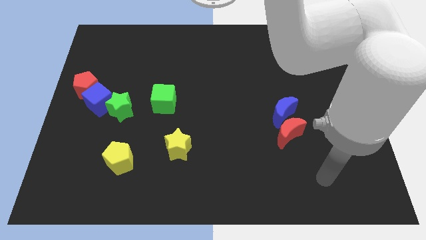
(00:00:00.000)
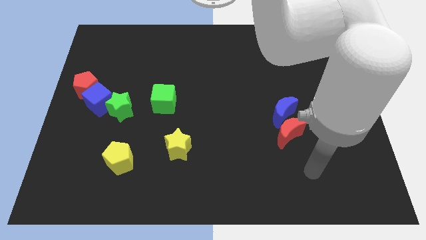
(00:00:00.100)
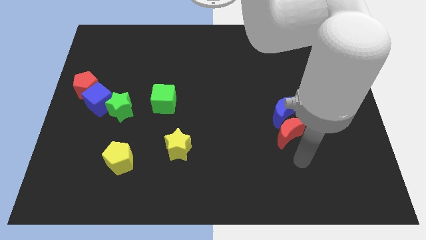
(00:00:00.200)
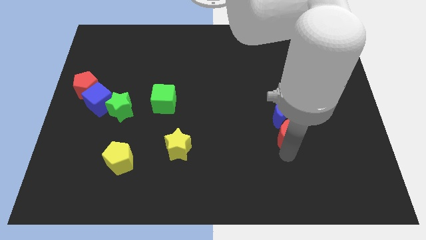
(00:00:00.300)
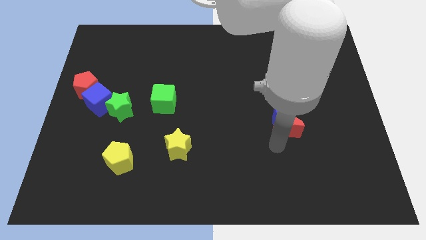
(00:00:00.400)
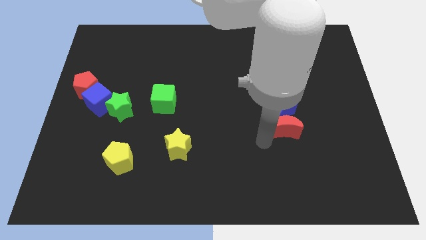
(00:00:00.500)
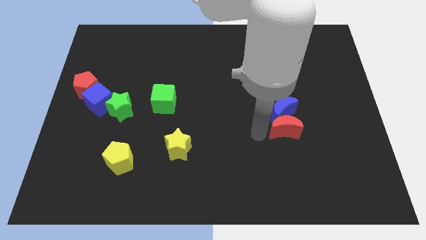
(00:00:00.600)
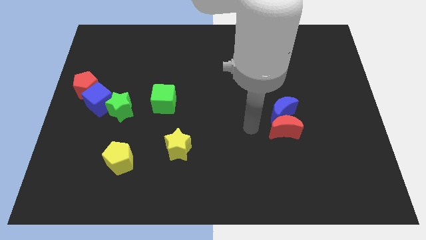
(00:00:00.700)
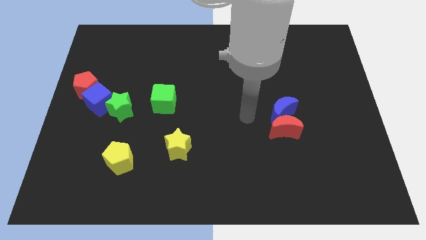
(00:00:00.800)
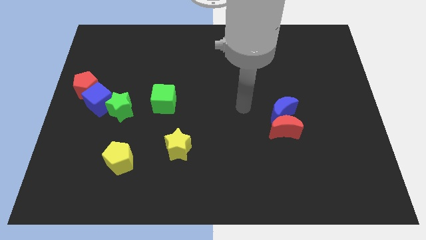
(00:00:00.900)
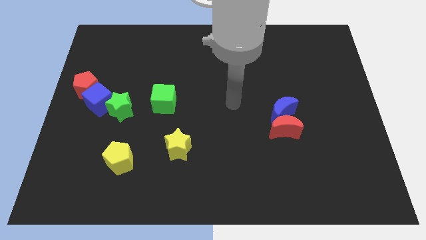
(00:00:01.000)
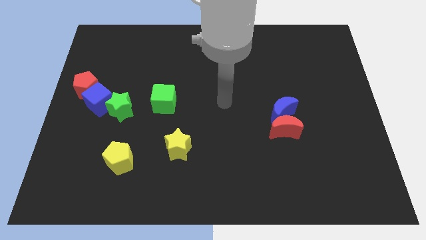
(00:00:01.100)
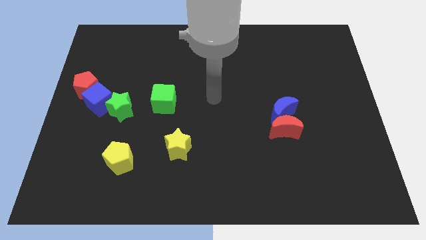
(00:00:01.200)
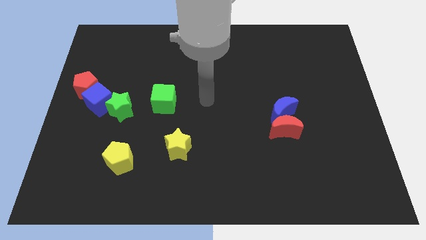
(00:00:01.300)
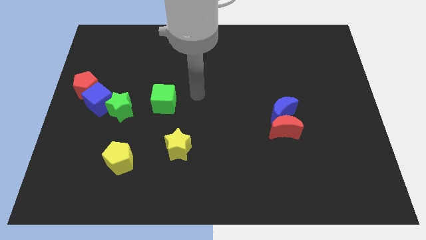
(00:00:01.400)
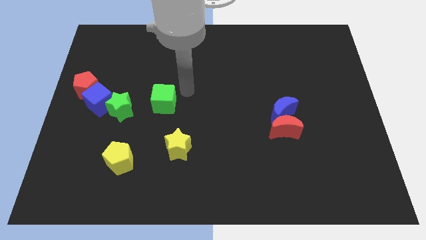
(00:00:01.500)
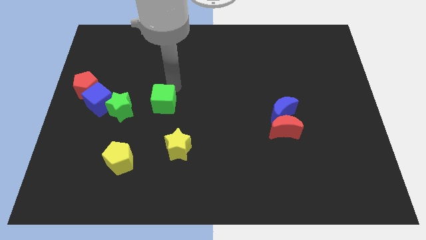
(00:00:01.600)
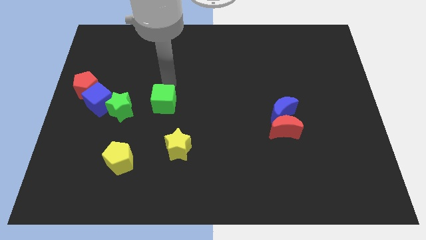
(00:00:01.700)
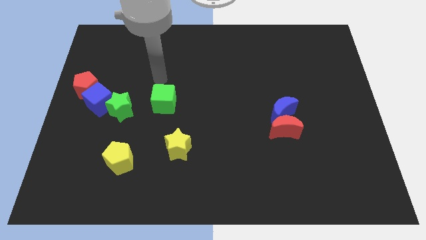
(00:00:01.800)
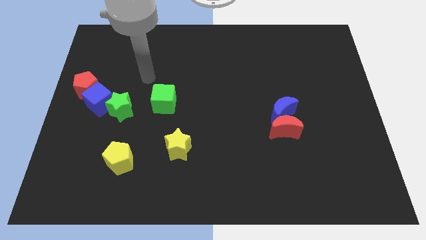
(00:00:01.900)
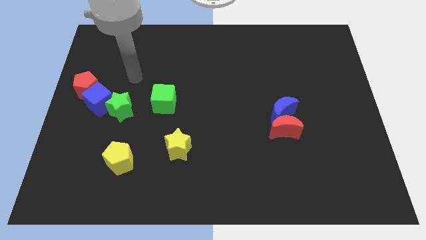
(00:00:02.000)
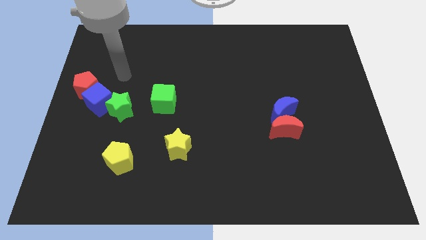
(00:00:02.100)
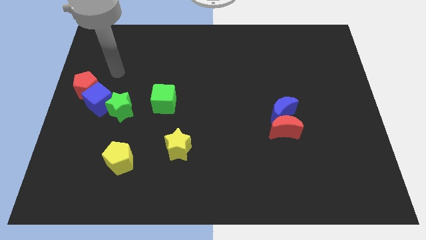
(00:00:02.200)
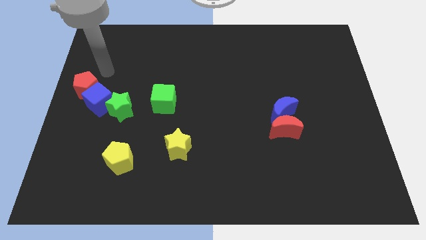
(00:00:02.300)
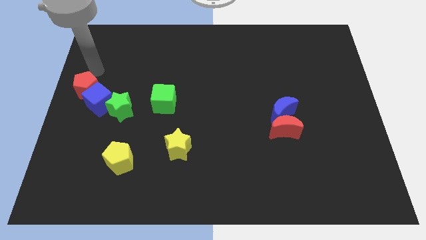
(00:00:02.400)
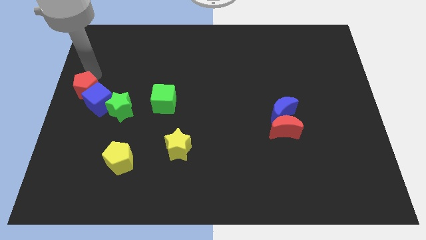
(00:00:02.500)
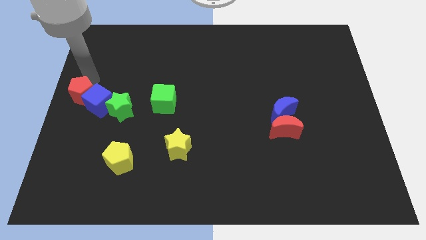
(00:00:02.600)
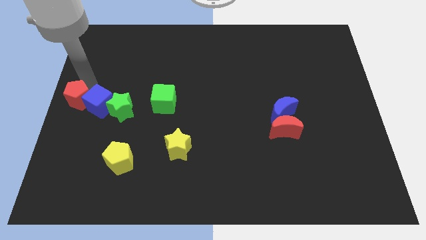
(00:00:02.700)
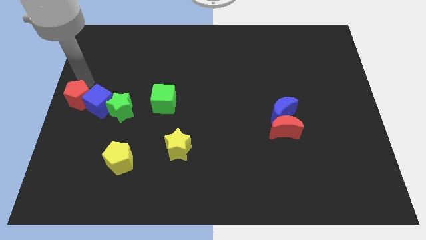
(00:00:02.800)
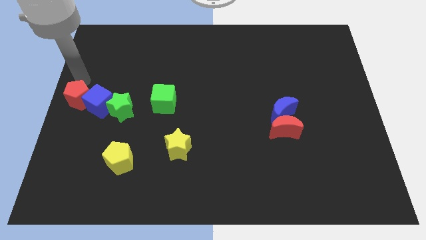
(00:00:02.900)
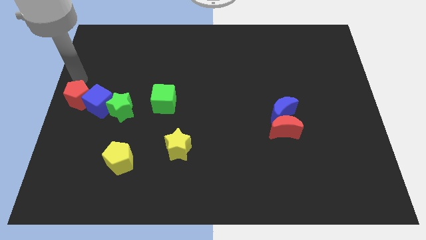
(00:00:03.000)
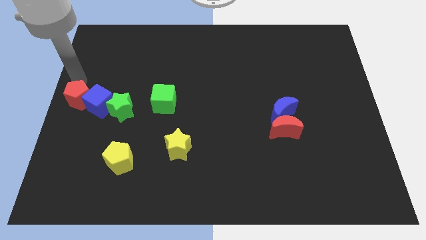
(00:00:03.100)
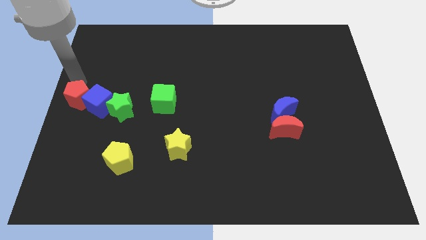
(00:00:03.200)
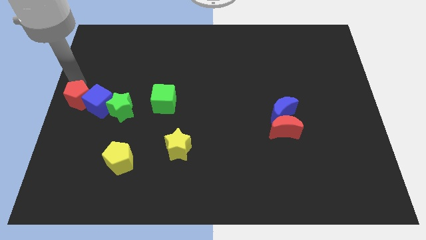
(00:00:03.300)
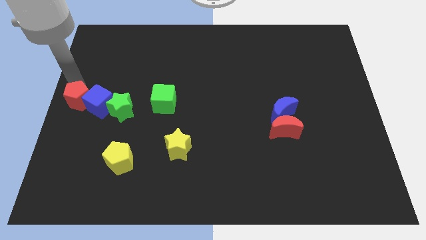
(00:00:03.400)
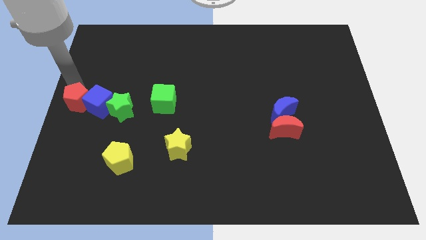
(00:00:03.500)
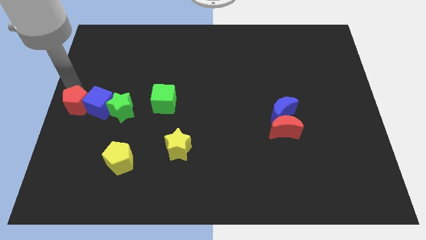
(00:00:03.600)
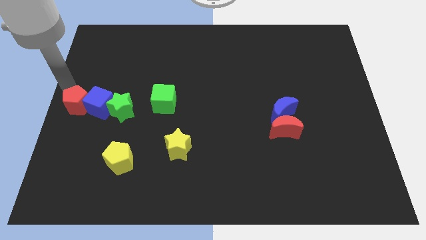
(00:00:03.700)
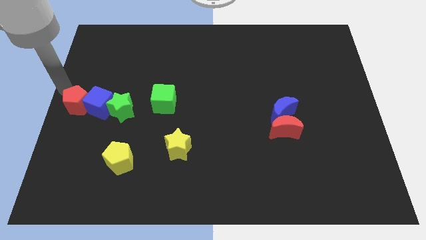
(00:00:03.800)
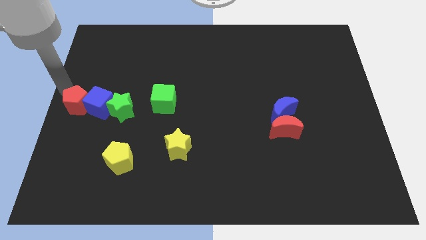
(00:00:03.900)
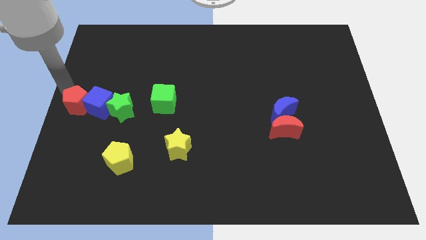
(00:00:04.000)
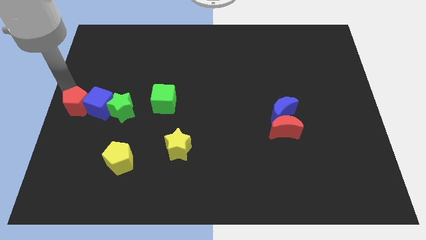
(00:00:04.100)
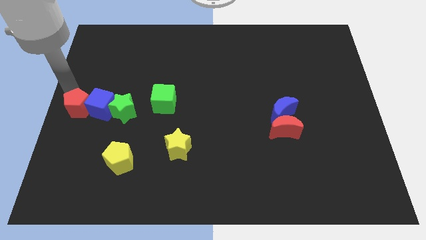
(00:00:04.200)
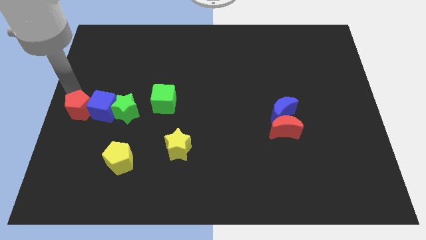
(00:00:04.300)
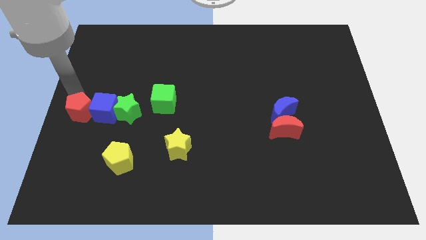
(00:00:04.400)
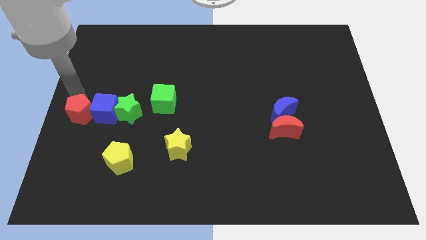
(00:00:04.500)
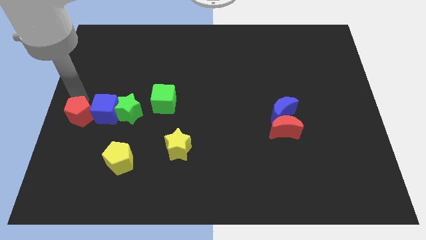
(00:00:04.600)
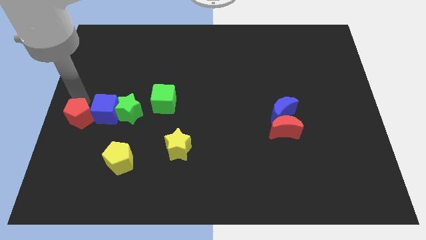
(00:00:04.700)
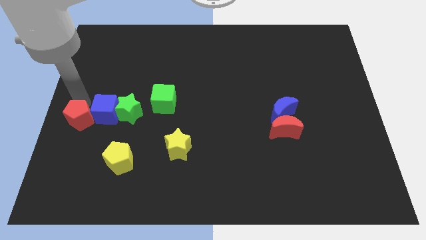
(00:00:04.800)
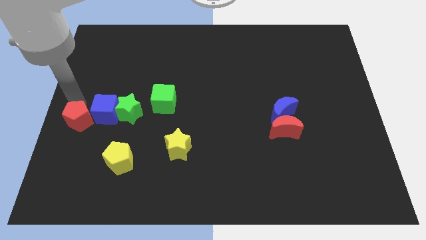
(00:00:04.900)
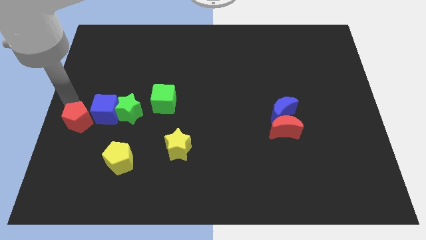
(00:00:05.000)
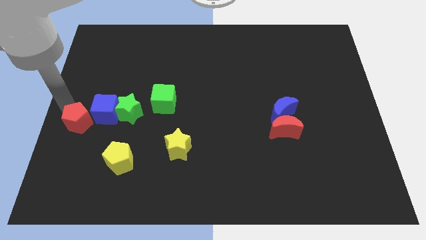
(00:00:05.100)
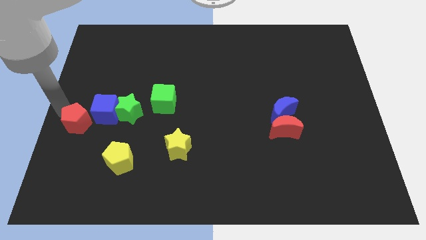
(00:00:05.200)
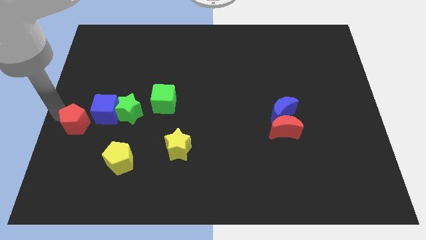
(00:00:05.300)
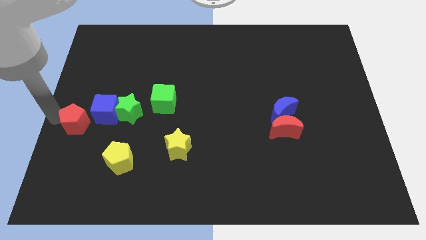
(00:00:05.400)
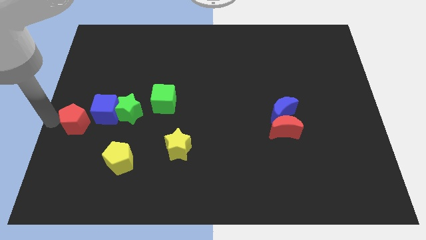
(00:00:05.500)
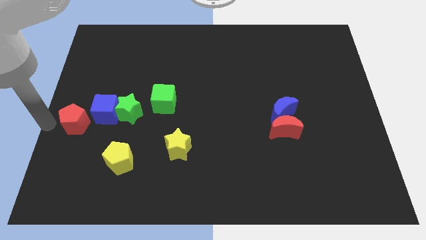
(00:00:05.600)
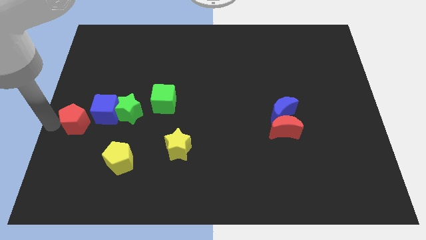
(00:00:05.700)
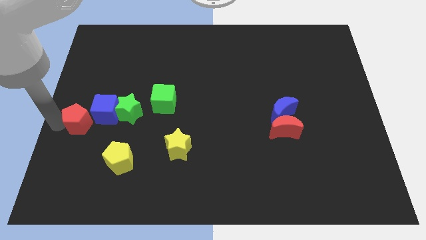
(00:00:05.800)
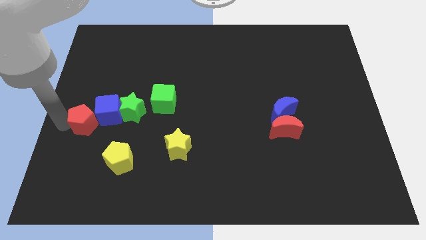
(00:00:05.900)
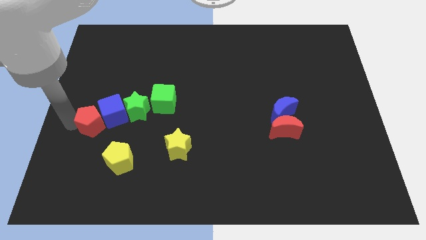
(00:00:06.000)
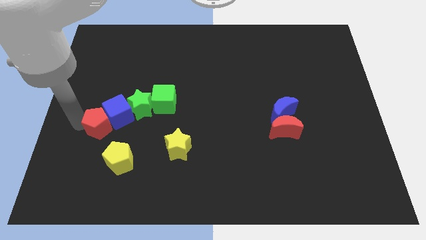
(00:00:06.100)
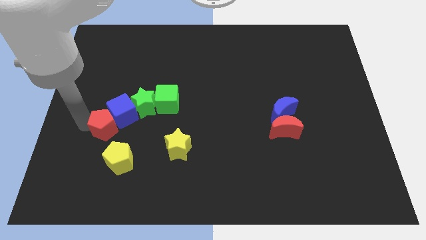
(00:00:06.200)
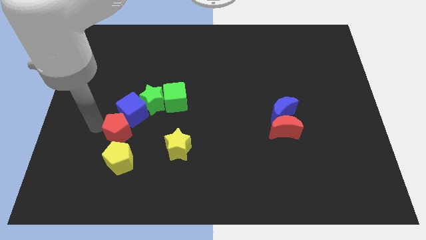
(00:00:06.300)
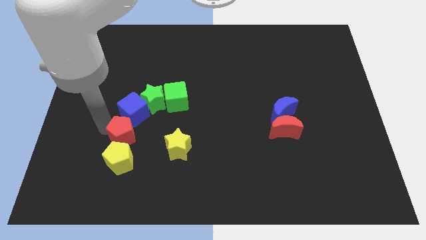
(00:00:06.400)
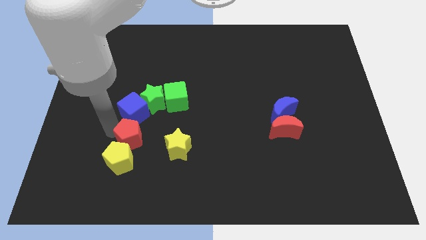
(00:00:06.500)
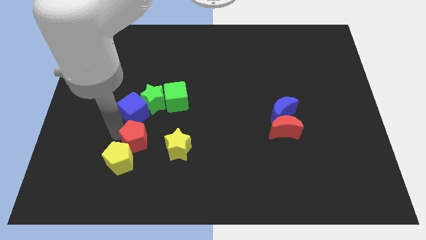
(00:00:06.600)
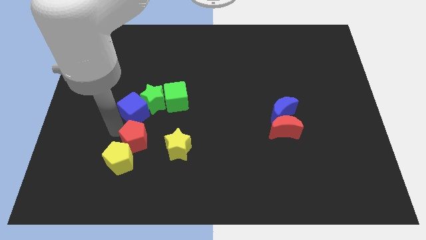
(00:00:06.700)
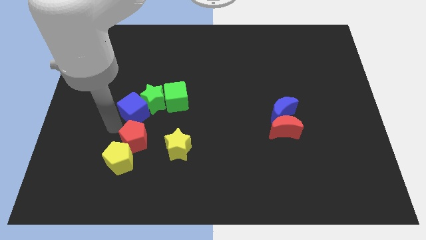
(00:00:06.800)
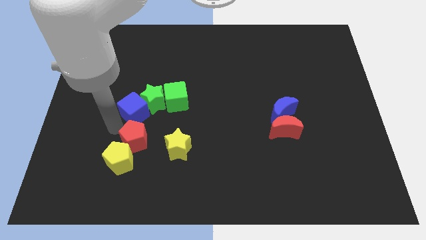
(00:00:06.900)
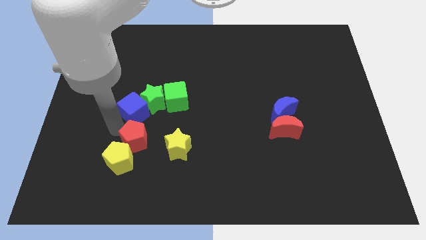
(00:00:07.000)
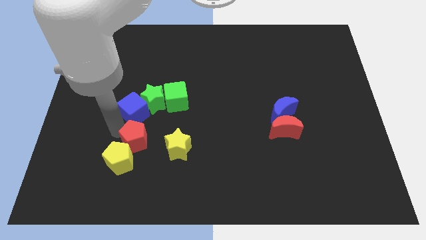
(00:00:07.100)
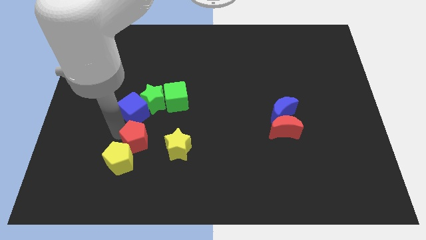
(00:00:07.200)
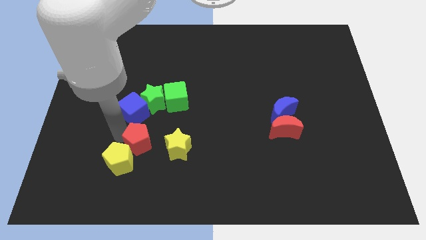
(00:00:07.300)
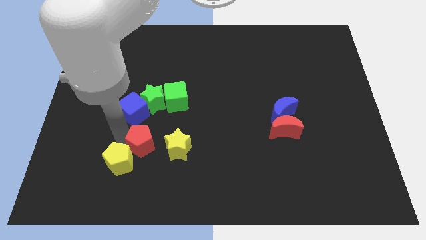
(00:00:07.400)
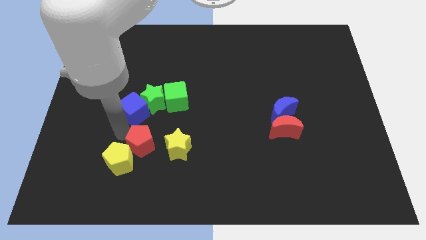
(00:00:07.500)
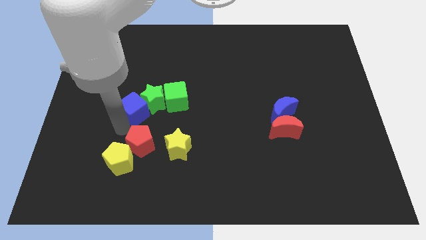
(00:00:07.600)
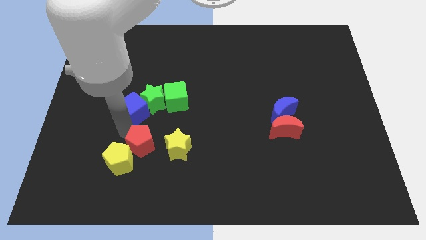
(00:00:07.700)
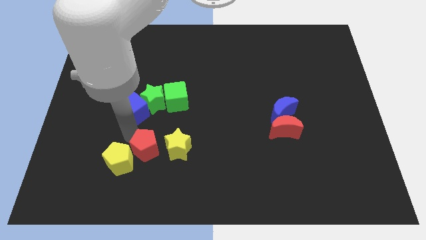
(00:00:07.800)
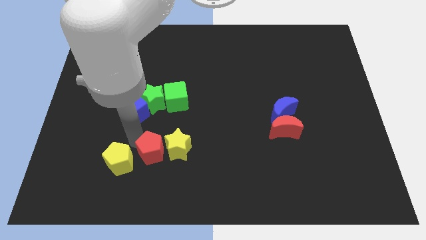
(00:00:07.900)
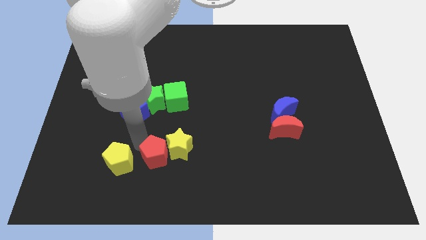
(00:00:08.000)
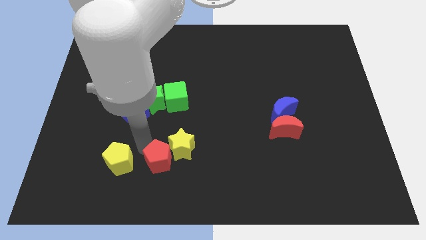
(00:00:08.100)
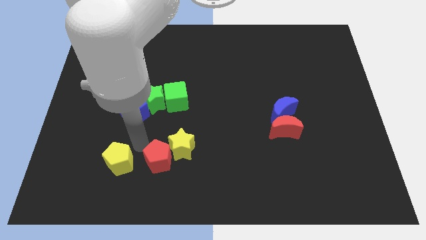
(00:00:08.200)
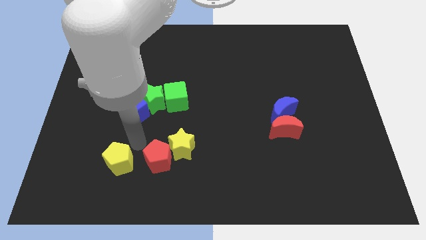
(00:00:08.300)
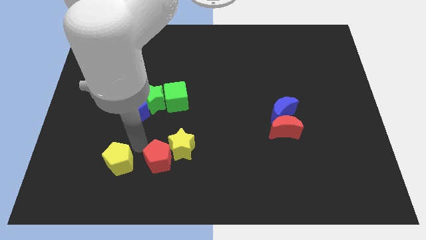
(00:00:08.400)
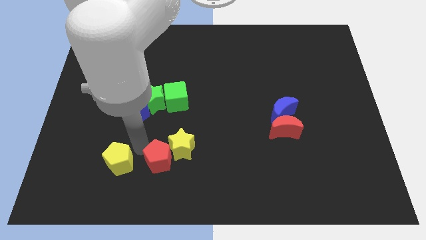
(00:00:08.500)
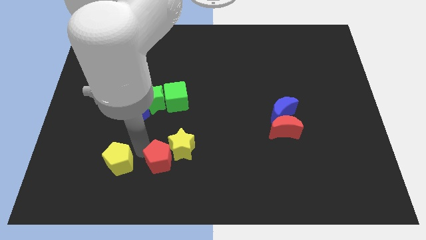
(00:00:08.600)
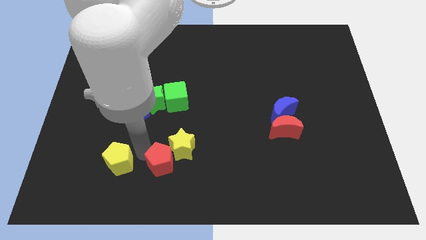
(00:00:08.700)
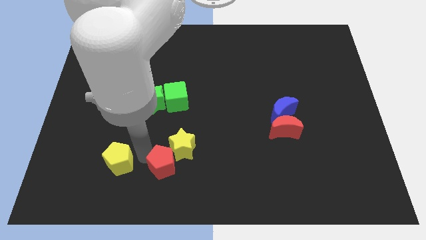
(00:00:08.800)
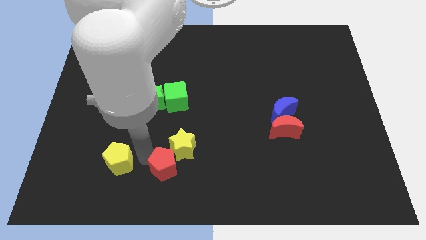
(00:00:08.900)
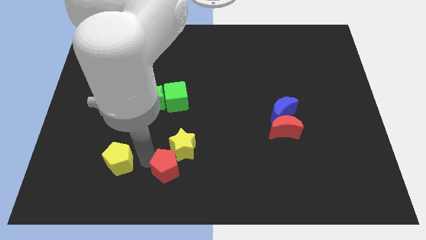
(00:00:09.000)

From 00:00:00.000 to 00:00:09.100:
slide the red pentagon to the bottom side
